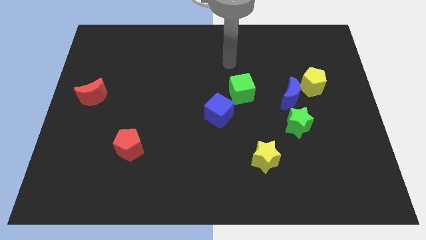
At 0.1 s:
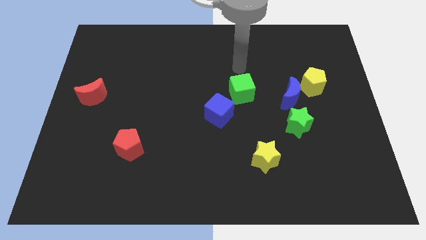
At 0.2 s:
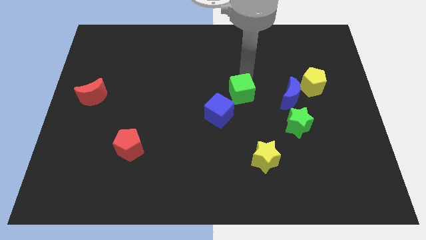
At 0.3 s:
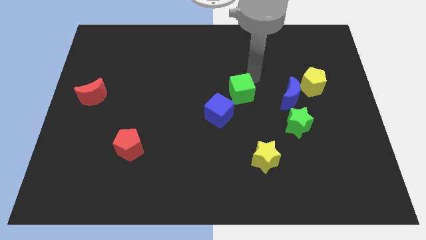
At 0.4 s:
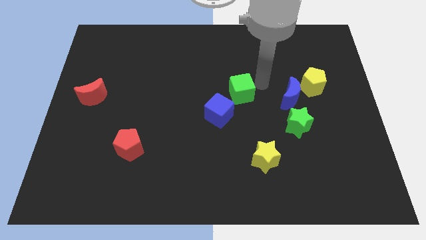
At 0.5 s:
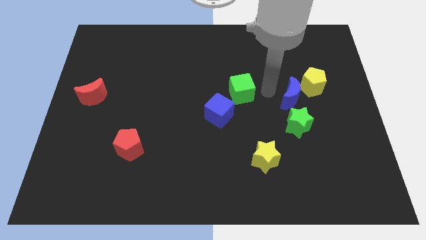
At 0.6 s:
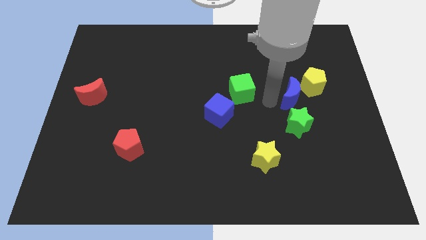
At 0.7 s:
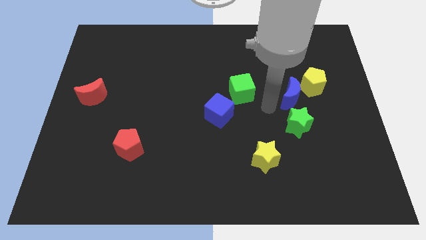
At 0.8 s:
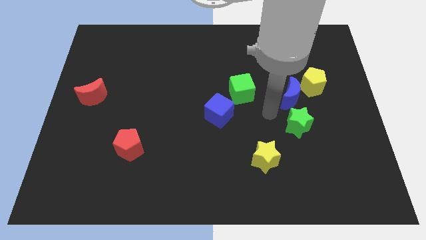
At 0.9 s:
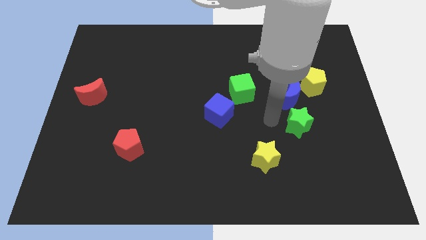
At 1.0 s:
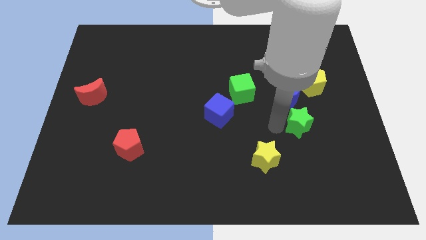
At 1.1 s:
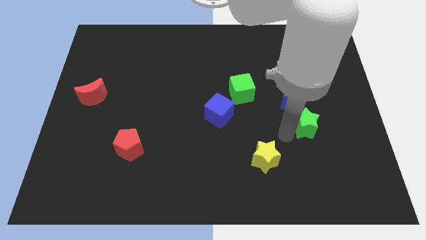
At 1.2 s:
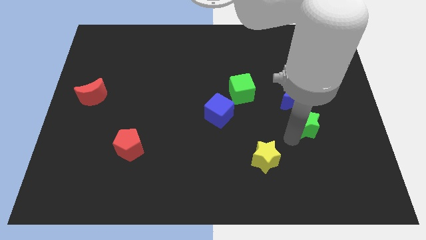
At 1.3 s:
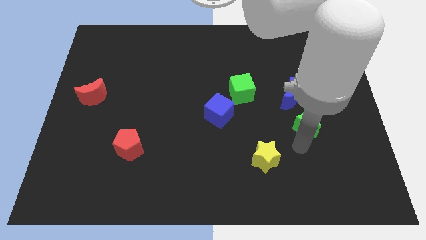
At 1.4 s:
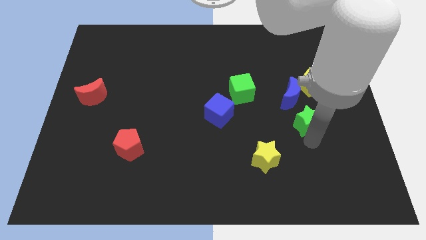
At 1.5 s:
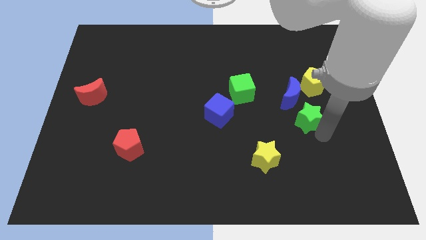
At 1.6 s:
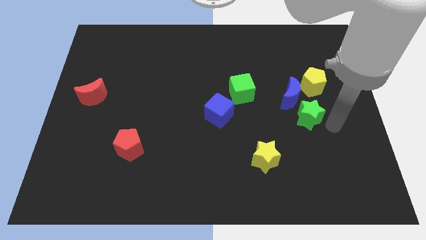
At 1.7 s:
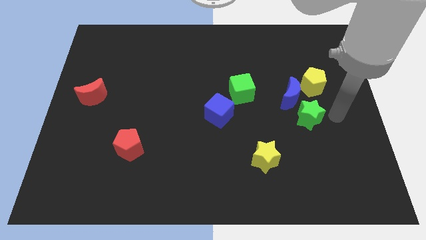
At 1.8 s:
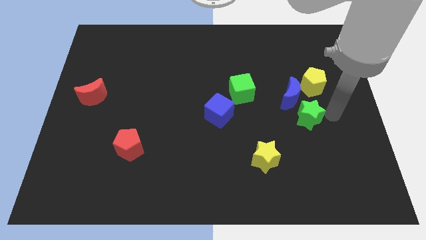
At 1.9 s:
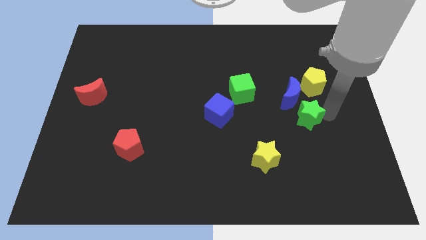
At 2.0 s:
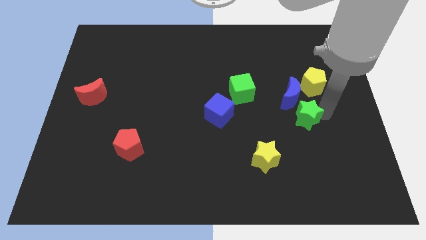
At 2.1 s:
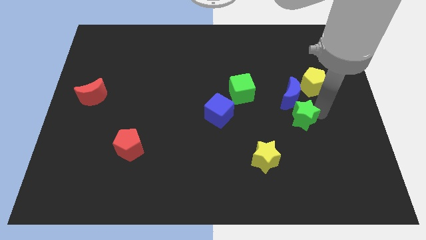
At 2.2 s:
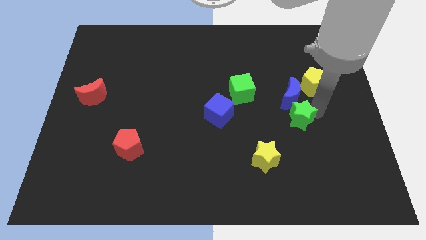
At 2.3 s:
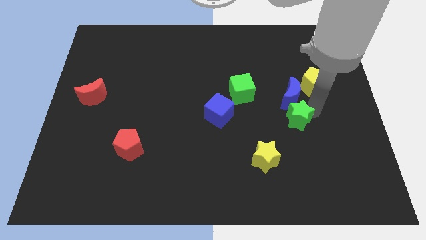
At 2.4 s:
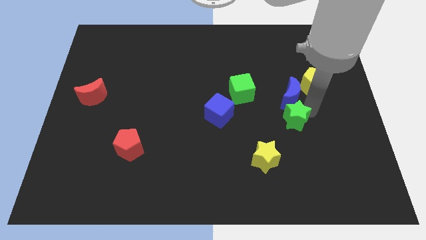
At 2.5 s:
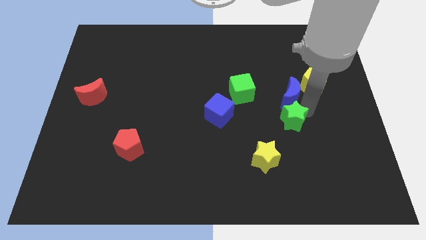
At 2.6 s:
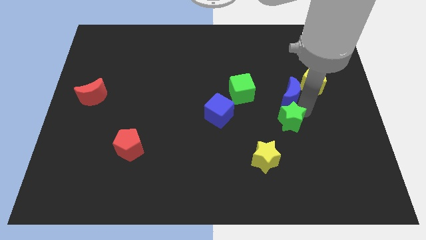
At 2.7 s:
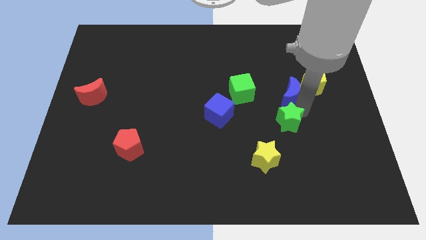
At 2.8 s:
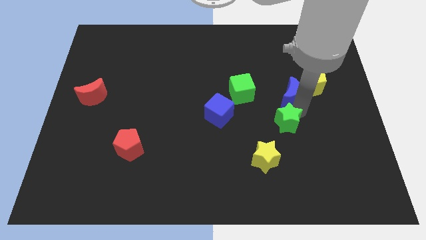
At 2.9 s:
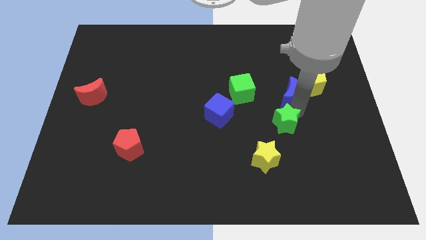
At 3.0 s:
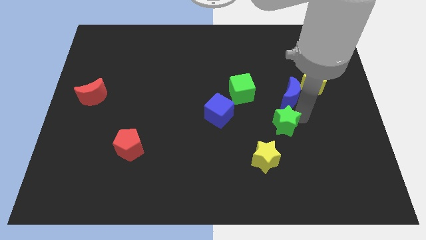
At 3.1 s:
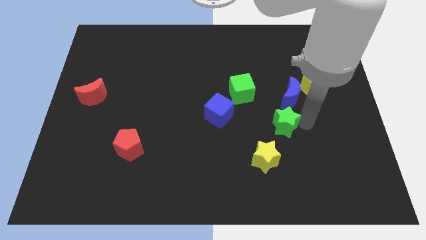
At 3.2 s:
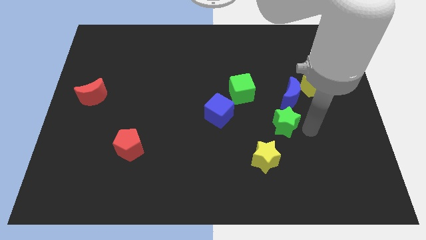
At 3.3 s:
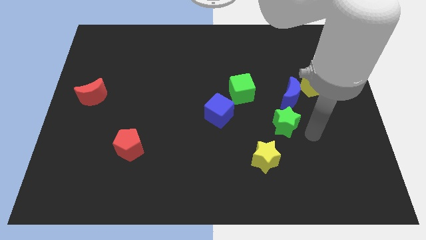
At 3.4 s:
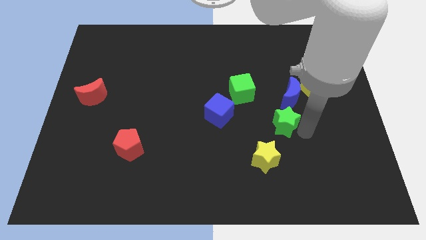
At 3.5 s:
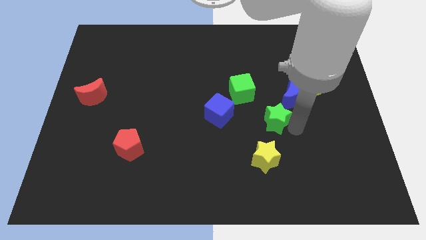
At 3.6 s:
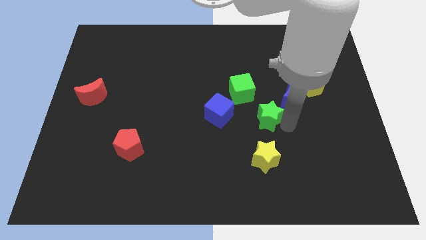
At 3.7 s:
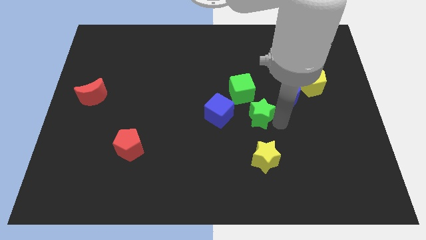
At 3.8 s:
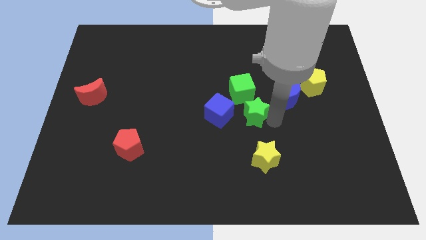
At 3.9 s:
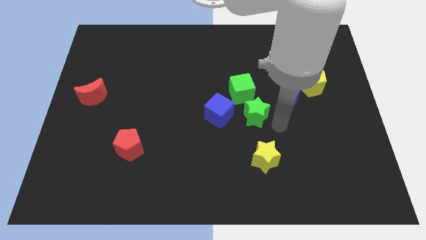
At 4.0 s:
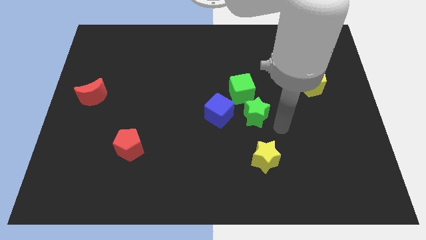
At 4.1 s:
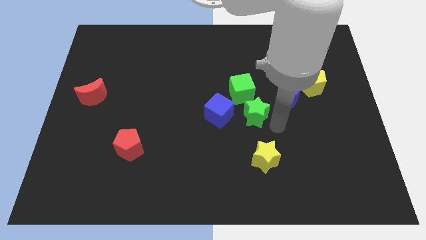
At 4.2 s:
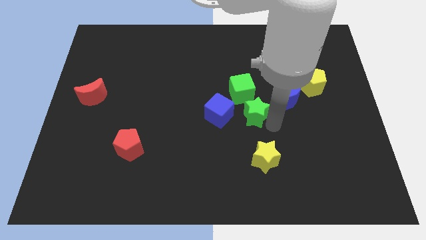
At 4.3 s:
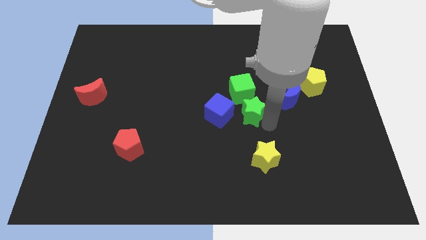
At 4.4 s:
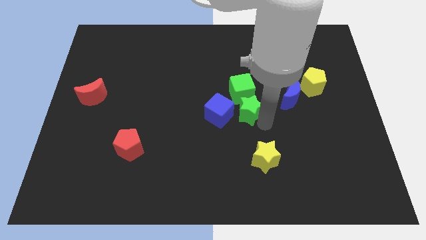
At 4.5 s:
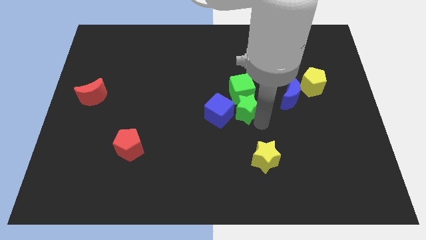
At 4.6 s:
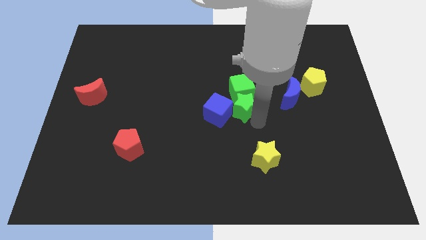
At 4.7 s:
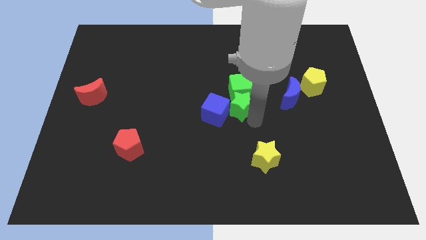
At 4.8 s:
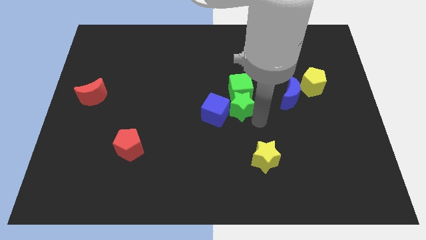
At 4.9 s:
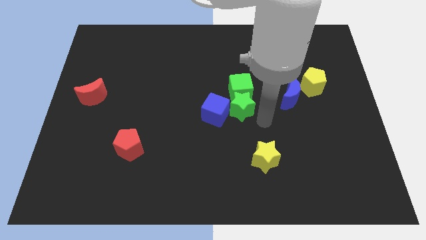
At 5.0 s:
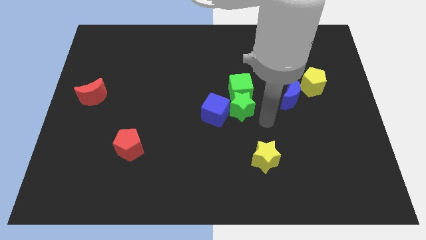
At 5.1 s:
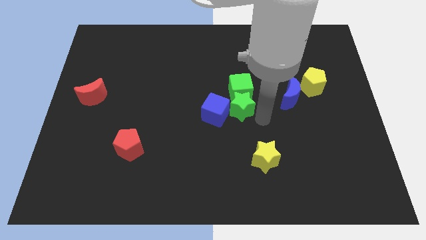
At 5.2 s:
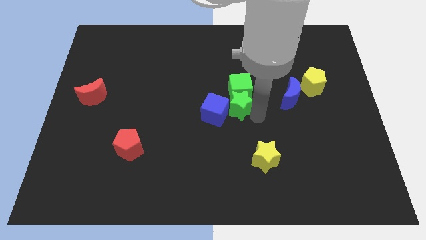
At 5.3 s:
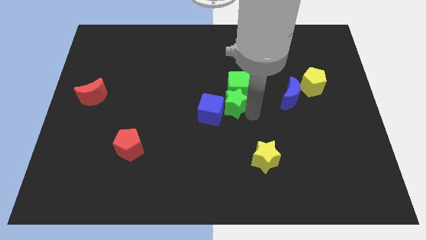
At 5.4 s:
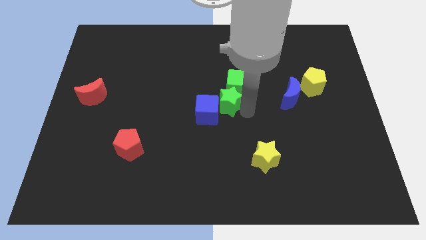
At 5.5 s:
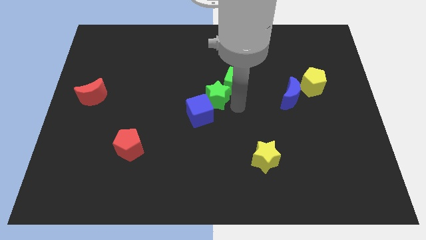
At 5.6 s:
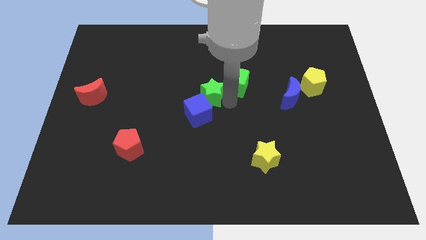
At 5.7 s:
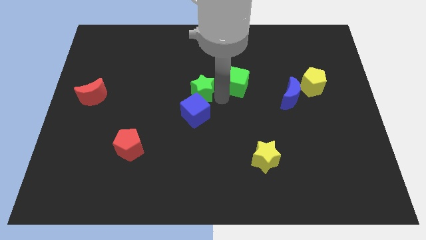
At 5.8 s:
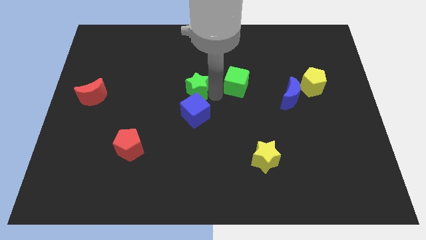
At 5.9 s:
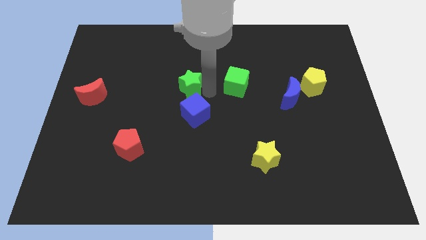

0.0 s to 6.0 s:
move the green star diagonally up and to the left of the blue cube

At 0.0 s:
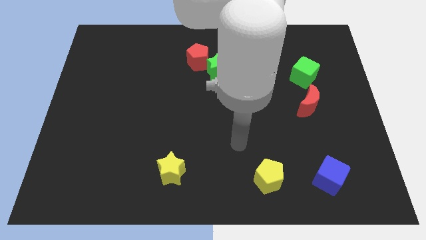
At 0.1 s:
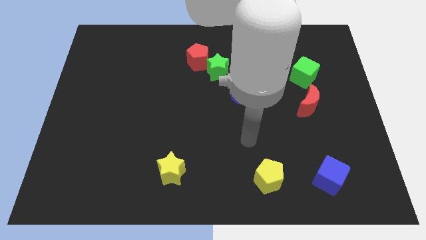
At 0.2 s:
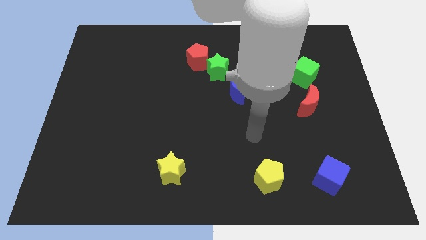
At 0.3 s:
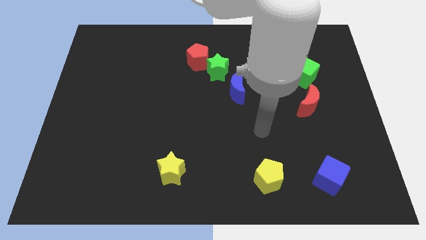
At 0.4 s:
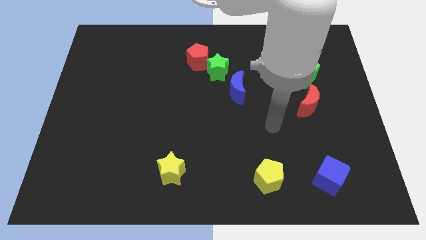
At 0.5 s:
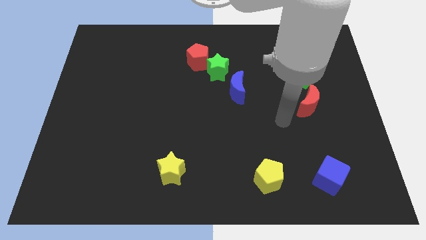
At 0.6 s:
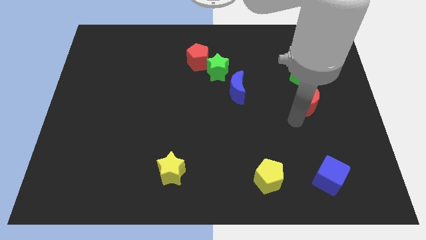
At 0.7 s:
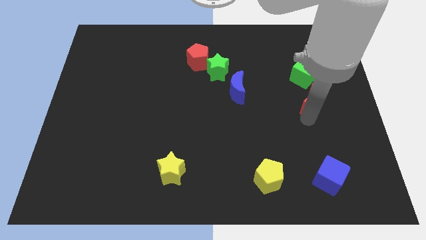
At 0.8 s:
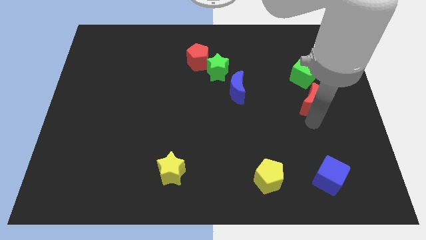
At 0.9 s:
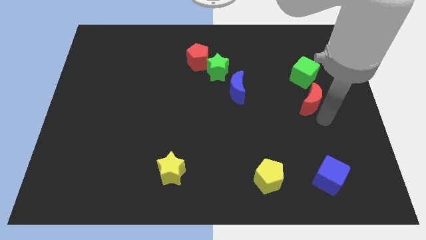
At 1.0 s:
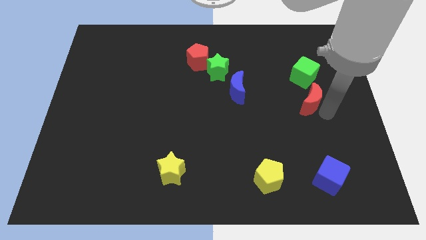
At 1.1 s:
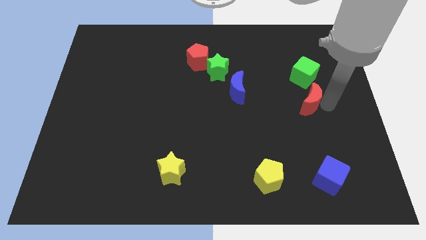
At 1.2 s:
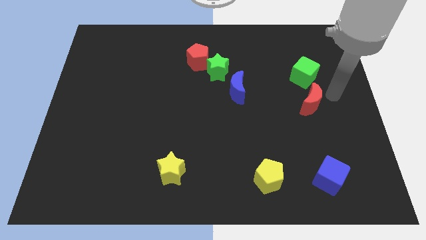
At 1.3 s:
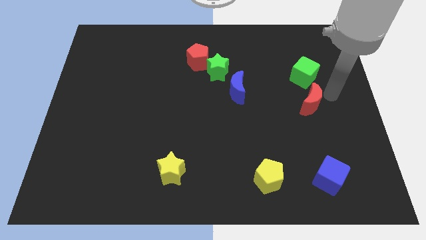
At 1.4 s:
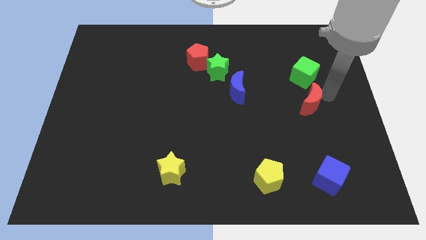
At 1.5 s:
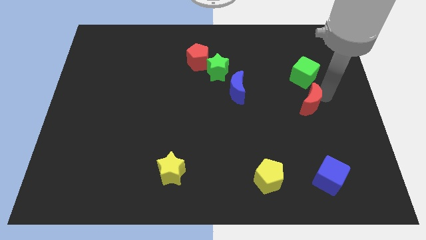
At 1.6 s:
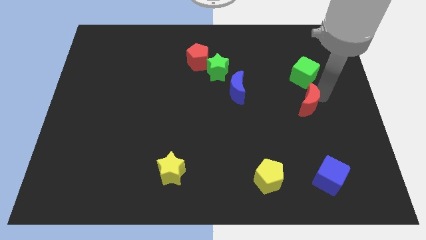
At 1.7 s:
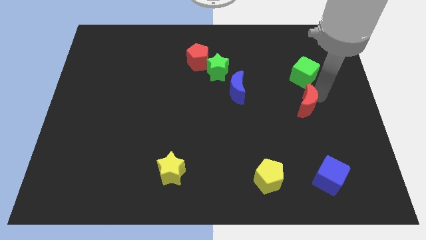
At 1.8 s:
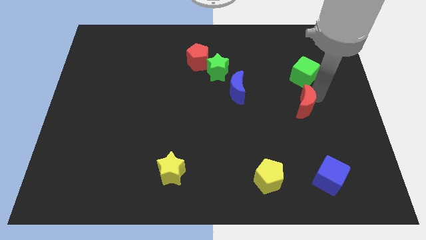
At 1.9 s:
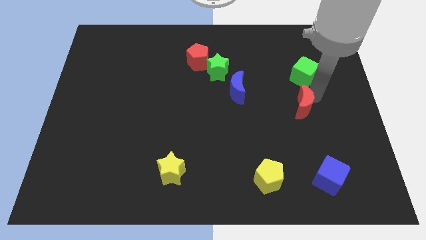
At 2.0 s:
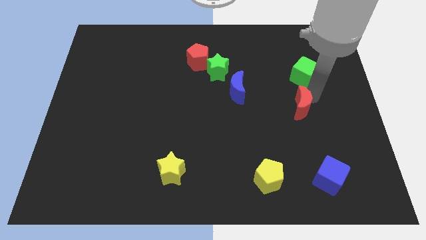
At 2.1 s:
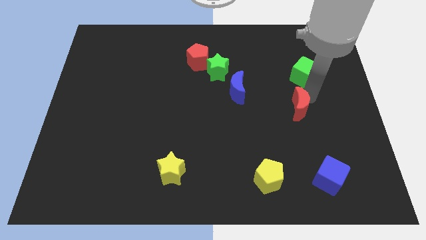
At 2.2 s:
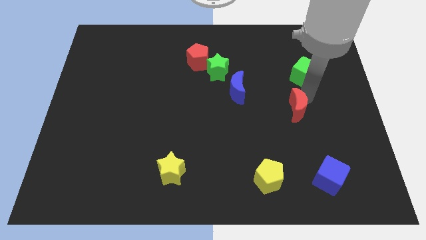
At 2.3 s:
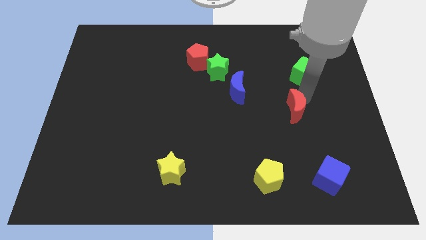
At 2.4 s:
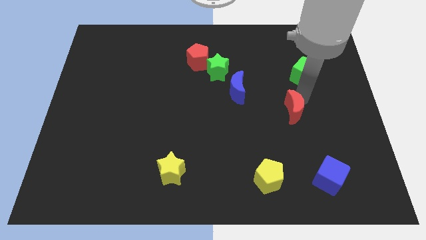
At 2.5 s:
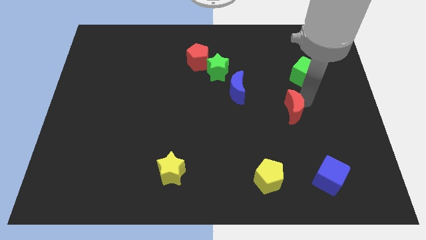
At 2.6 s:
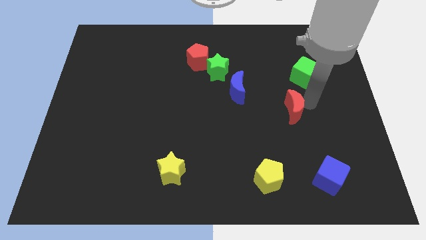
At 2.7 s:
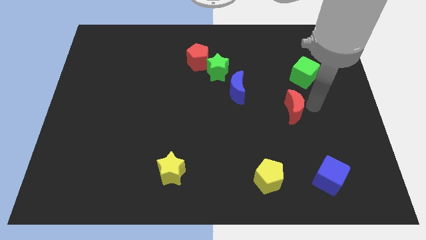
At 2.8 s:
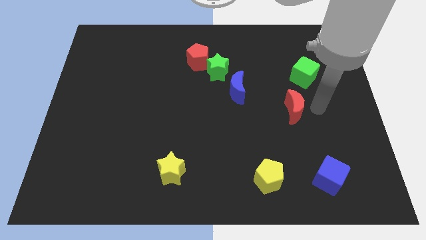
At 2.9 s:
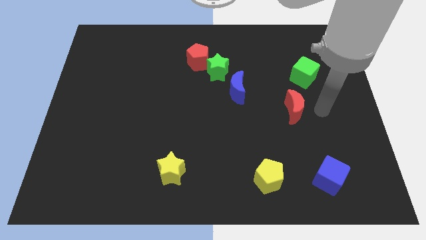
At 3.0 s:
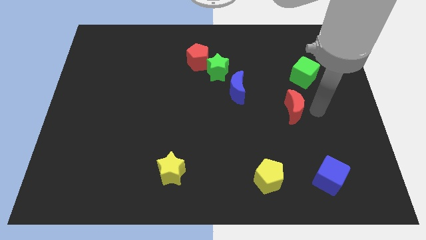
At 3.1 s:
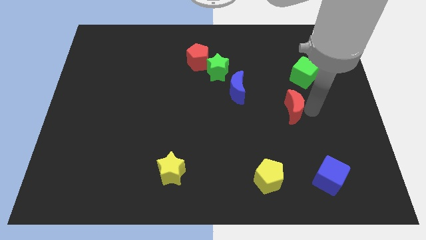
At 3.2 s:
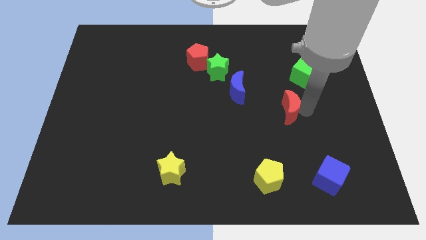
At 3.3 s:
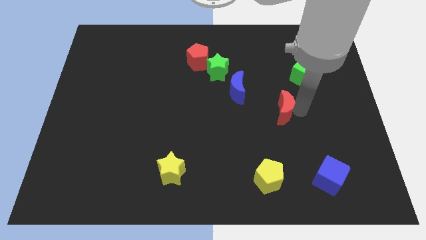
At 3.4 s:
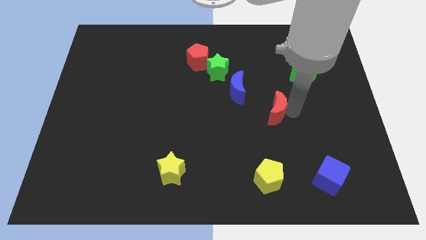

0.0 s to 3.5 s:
put the red moon diagonally down and to the right of the blue moon
